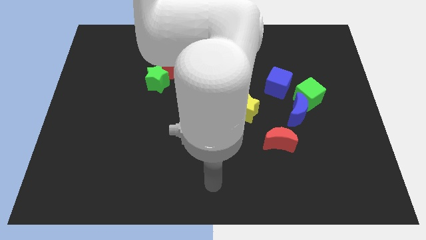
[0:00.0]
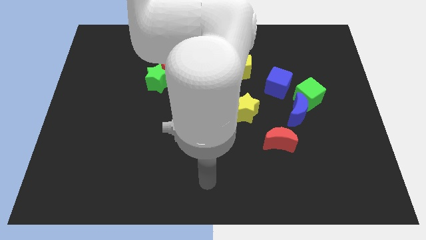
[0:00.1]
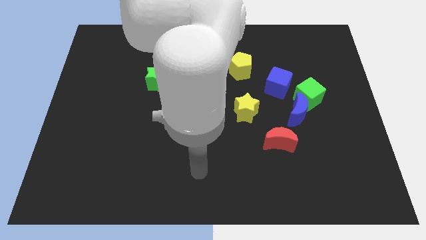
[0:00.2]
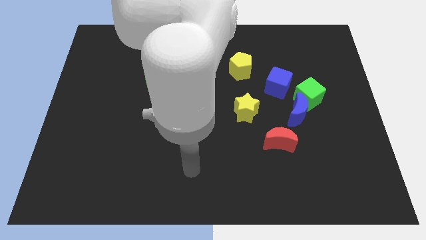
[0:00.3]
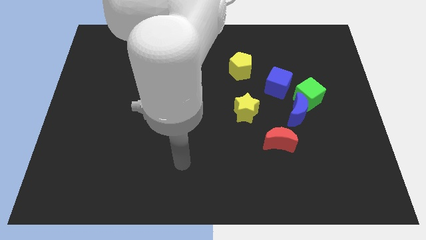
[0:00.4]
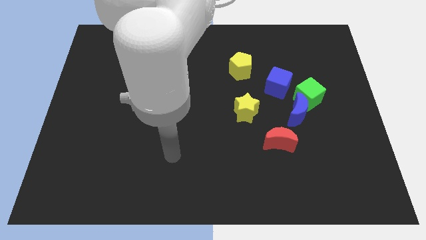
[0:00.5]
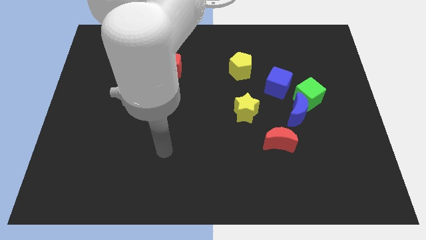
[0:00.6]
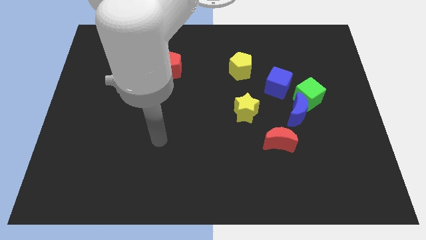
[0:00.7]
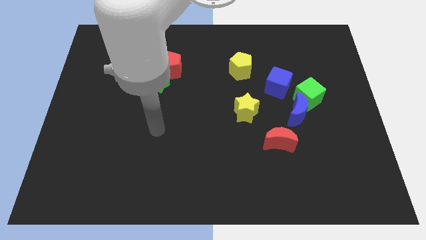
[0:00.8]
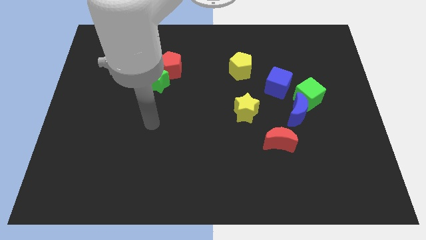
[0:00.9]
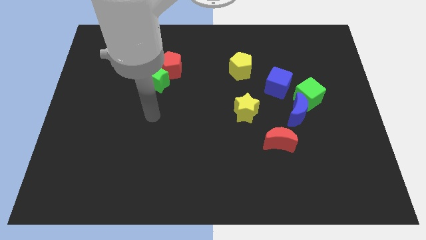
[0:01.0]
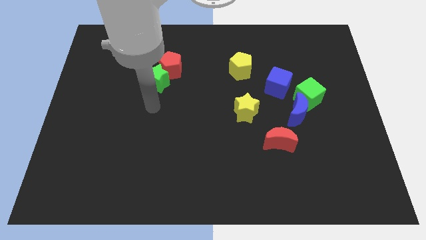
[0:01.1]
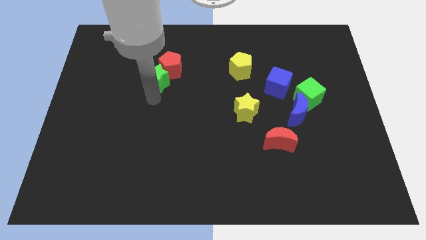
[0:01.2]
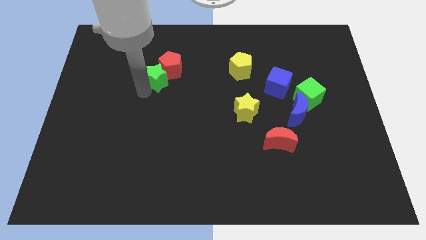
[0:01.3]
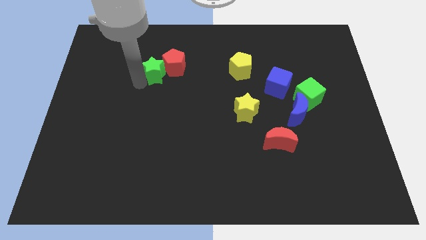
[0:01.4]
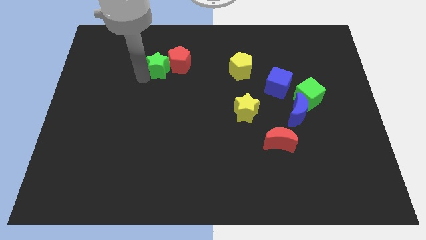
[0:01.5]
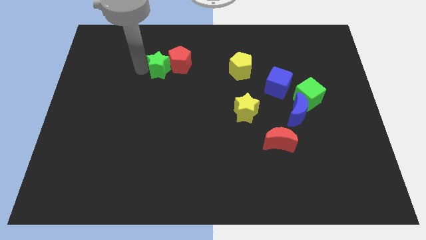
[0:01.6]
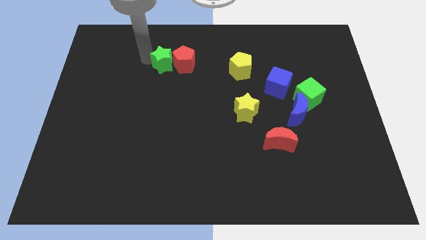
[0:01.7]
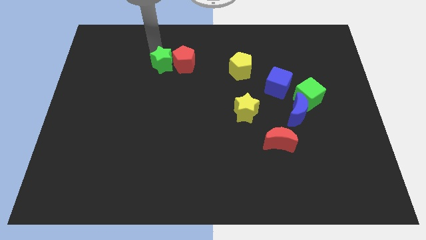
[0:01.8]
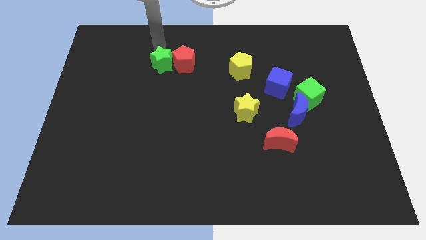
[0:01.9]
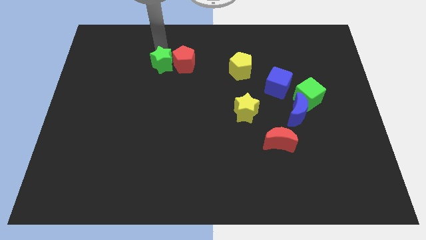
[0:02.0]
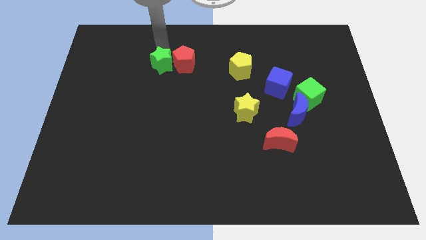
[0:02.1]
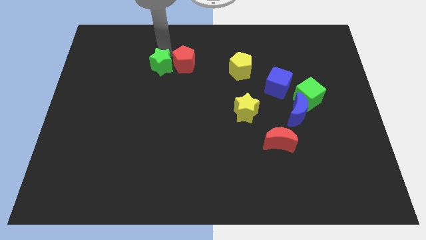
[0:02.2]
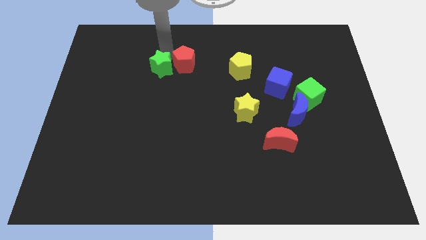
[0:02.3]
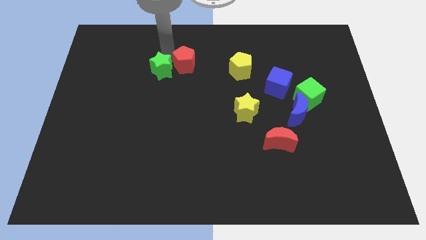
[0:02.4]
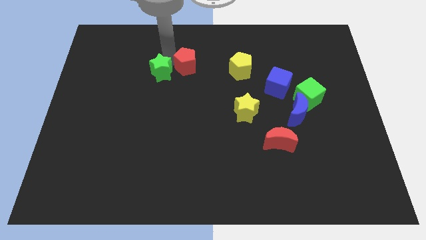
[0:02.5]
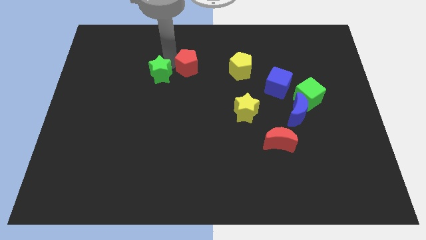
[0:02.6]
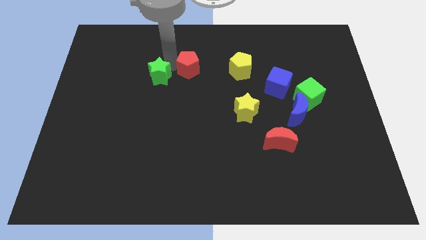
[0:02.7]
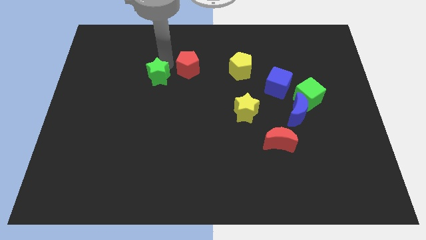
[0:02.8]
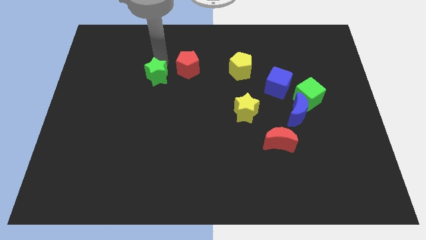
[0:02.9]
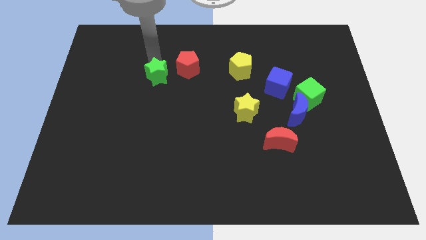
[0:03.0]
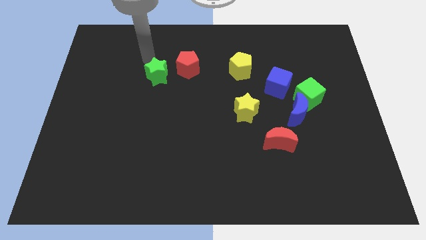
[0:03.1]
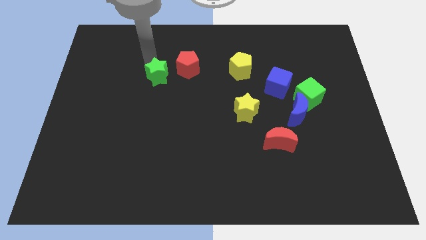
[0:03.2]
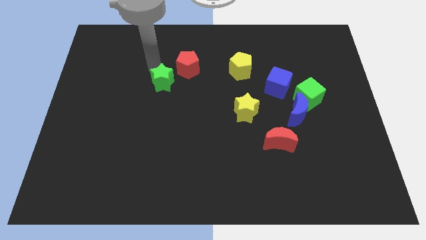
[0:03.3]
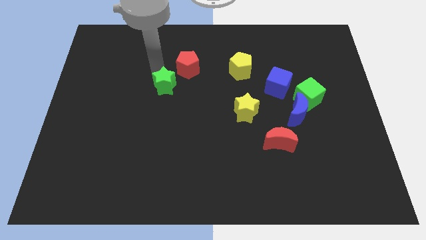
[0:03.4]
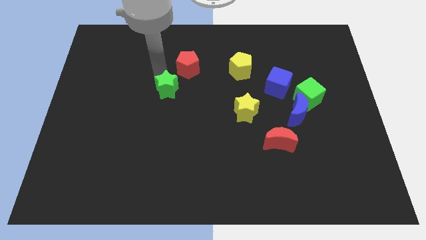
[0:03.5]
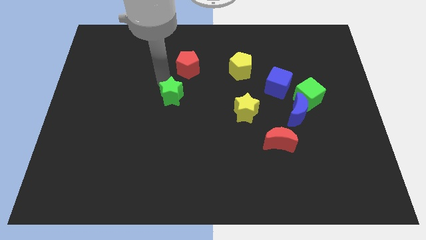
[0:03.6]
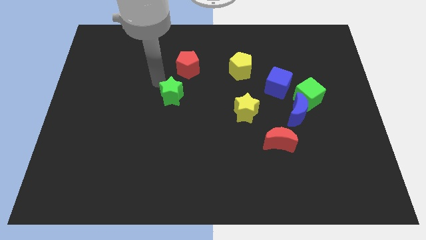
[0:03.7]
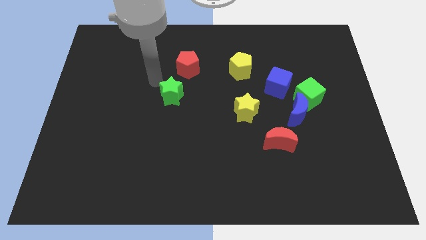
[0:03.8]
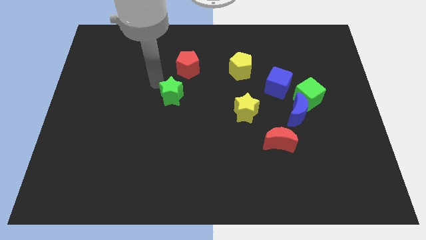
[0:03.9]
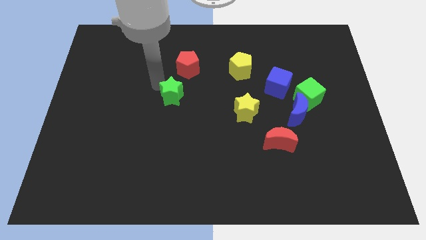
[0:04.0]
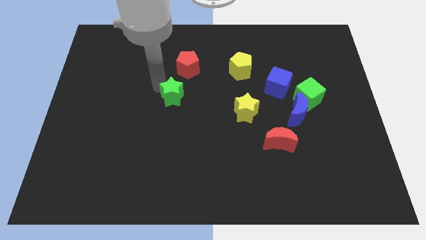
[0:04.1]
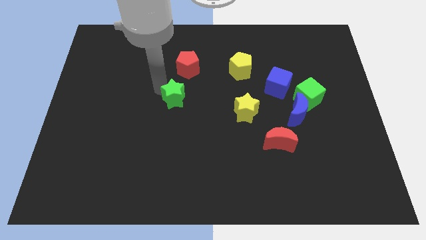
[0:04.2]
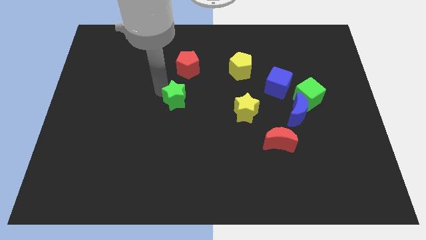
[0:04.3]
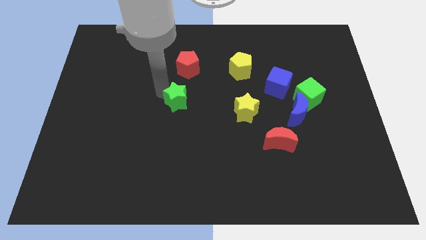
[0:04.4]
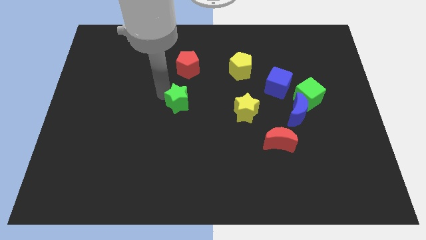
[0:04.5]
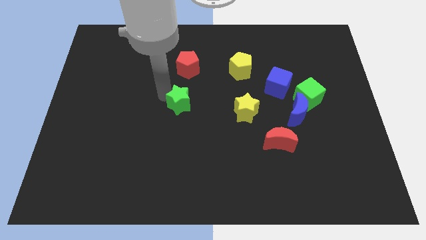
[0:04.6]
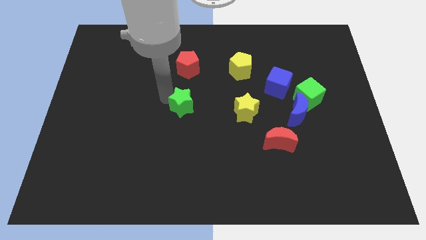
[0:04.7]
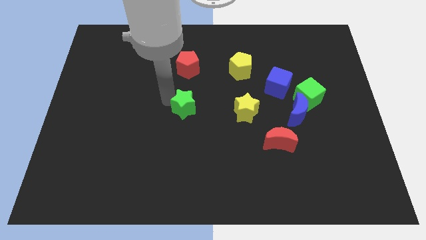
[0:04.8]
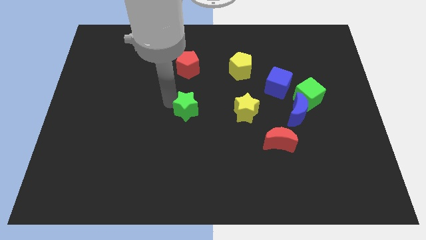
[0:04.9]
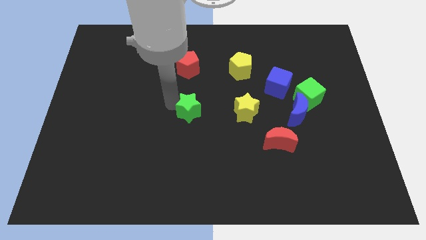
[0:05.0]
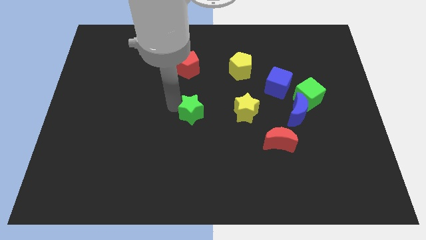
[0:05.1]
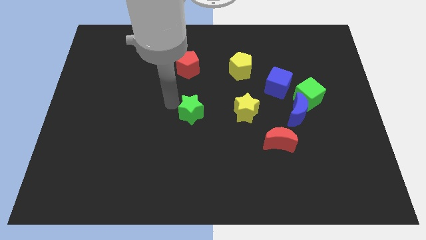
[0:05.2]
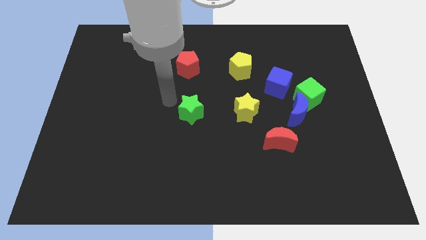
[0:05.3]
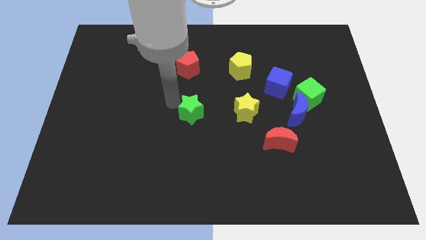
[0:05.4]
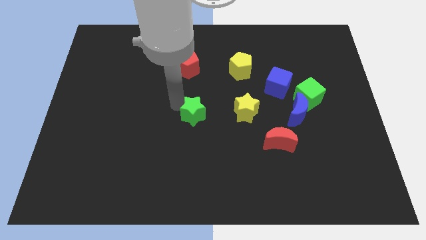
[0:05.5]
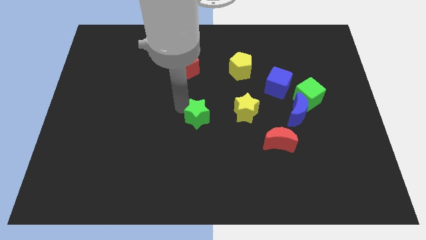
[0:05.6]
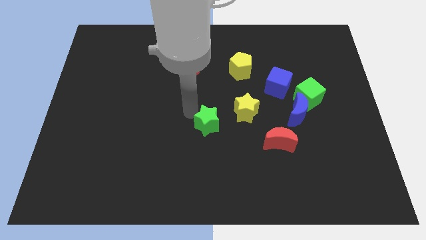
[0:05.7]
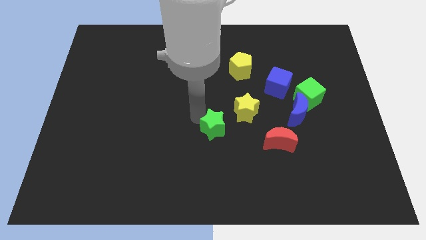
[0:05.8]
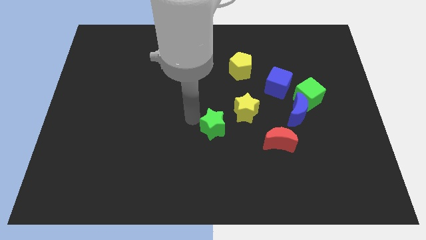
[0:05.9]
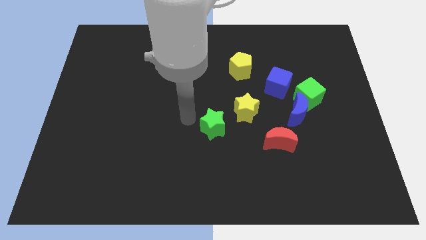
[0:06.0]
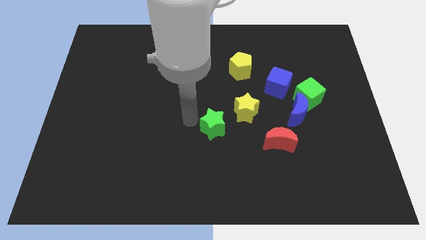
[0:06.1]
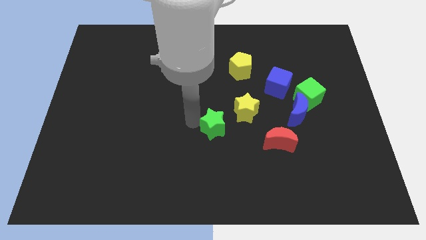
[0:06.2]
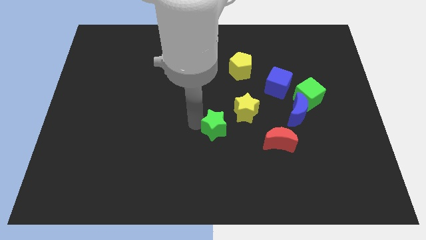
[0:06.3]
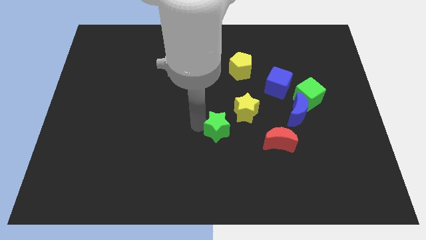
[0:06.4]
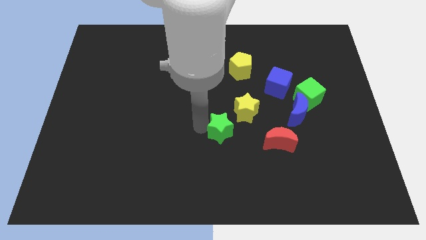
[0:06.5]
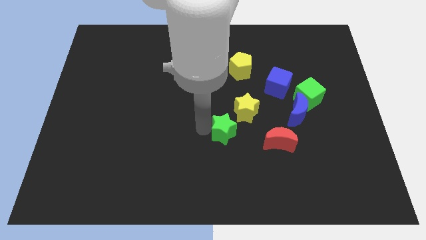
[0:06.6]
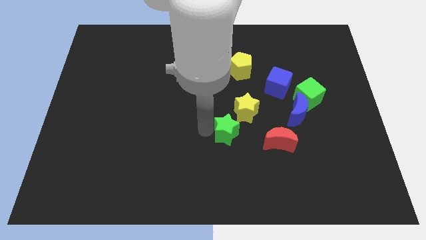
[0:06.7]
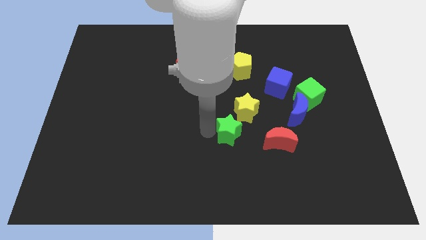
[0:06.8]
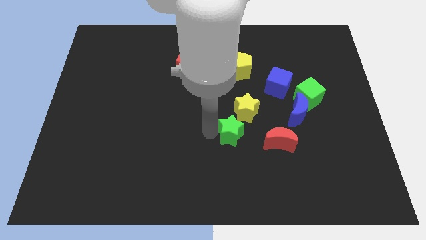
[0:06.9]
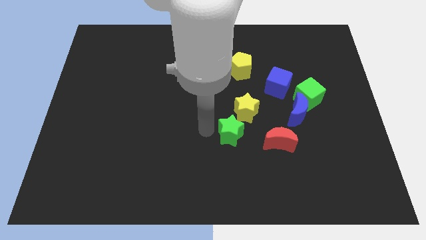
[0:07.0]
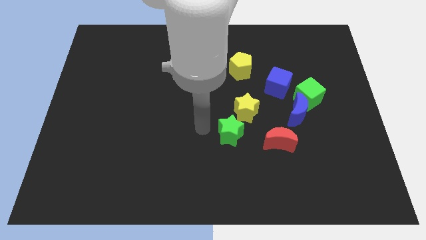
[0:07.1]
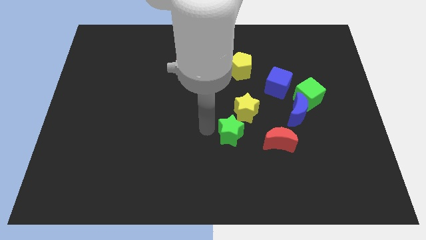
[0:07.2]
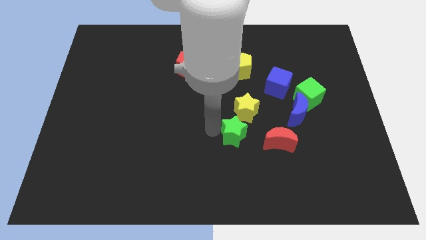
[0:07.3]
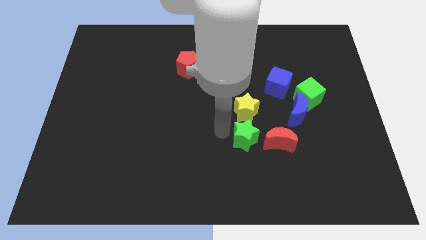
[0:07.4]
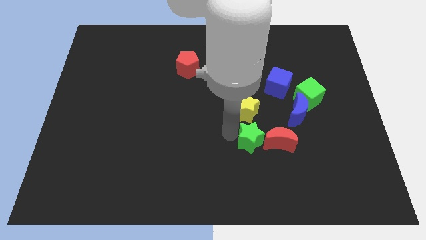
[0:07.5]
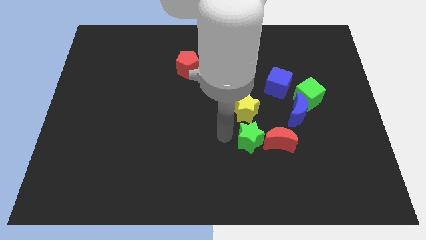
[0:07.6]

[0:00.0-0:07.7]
put the green star to the red moon
